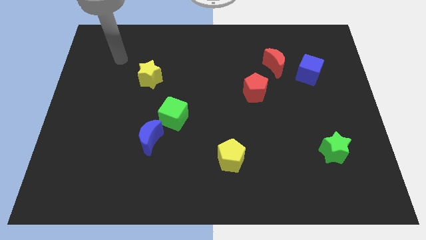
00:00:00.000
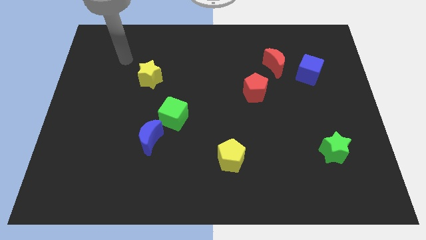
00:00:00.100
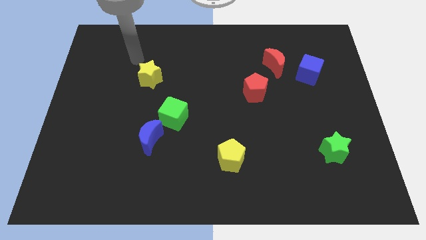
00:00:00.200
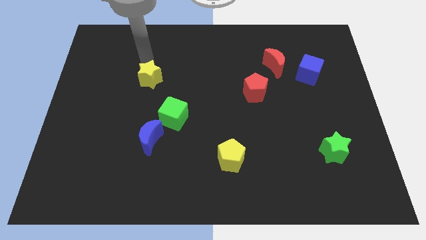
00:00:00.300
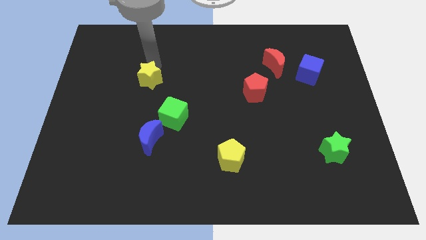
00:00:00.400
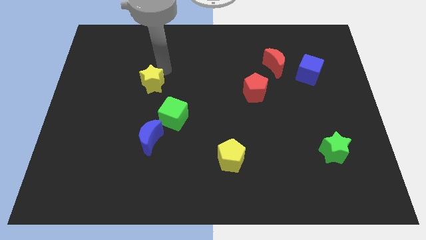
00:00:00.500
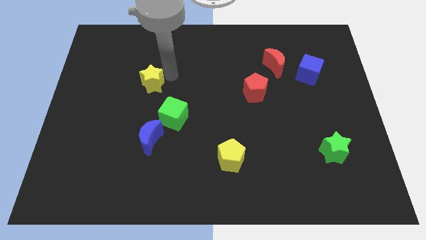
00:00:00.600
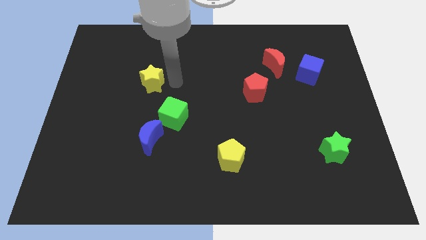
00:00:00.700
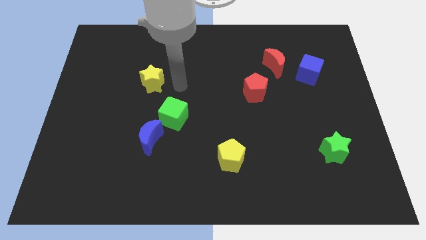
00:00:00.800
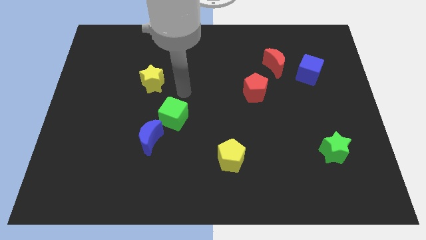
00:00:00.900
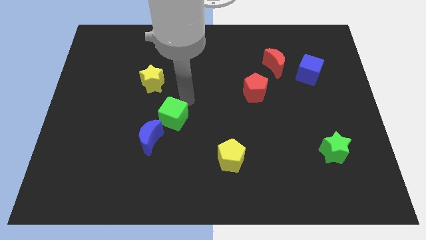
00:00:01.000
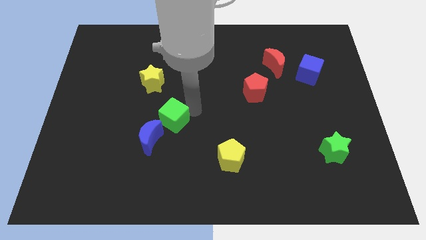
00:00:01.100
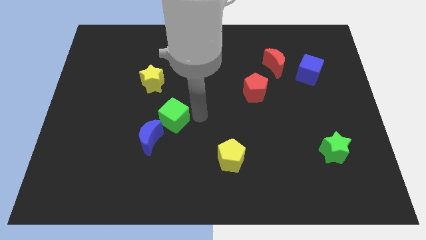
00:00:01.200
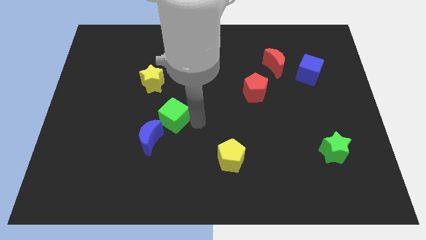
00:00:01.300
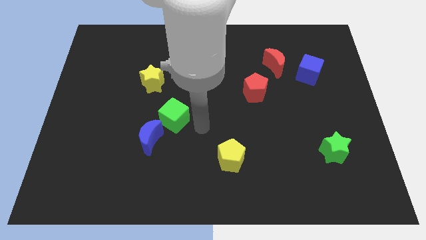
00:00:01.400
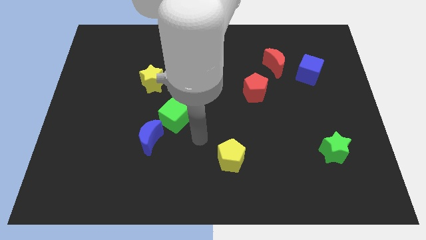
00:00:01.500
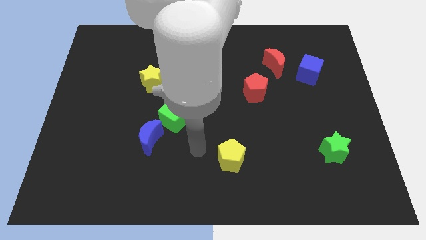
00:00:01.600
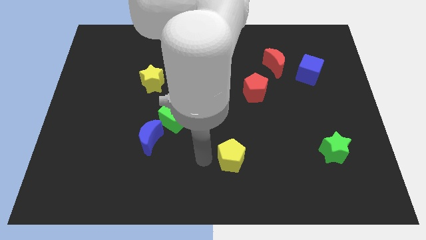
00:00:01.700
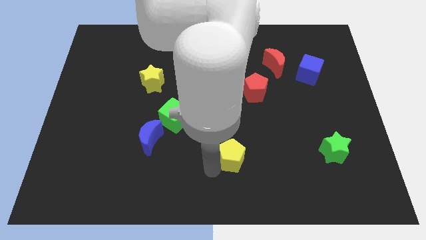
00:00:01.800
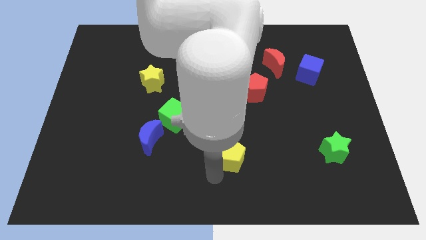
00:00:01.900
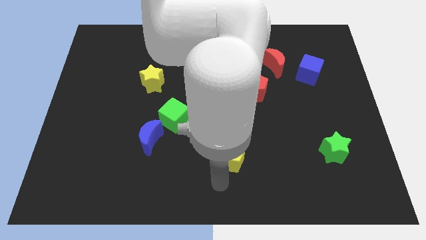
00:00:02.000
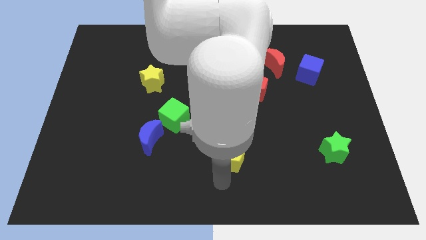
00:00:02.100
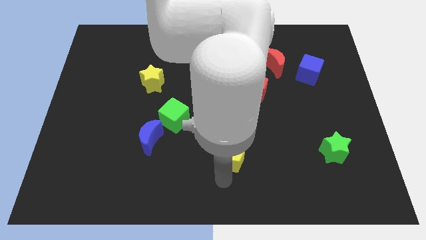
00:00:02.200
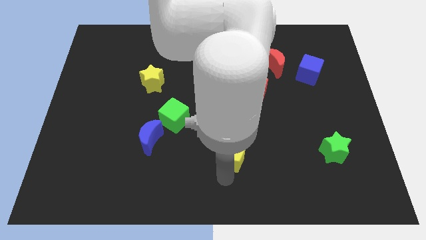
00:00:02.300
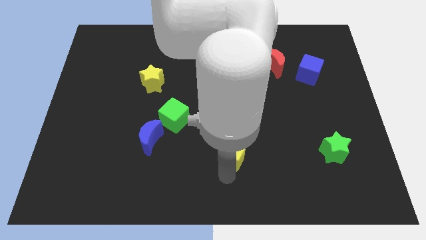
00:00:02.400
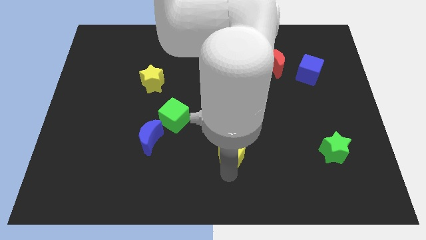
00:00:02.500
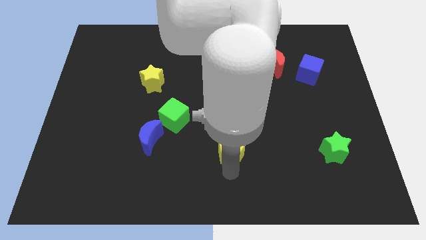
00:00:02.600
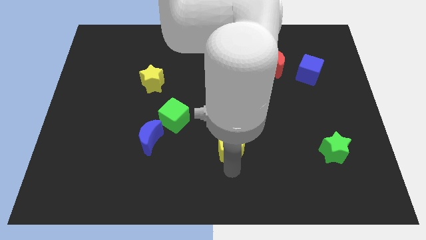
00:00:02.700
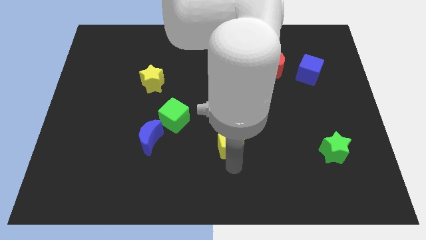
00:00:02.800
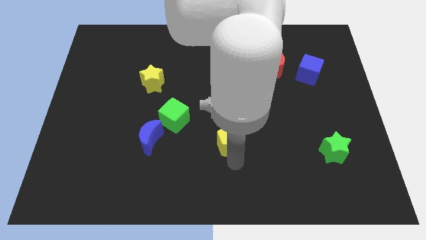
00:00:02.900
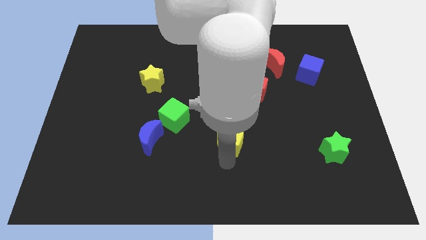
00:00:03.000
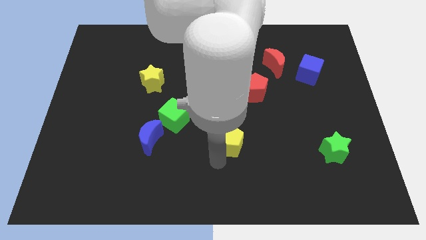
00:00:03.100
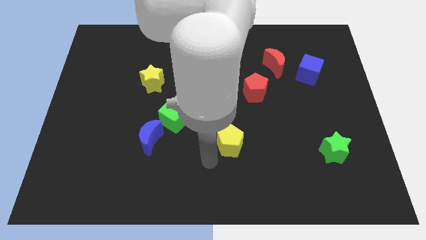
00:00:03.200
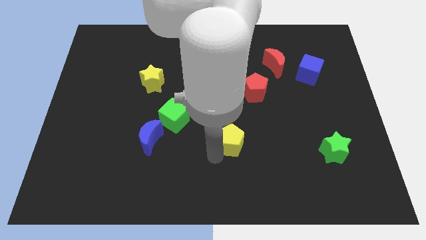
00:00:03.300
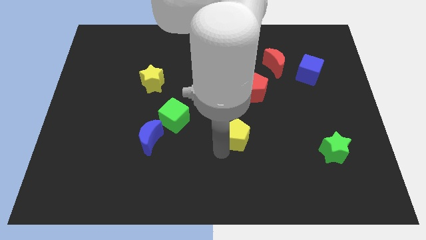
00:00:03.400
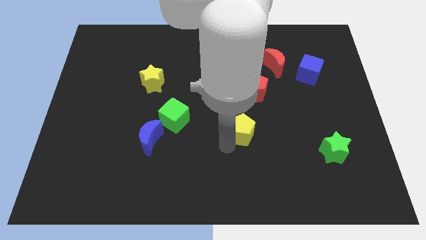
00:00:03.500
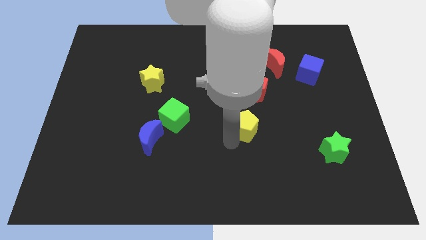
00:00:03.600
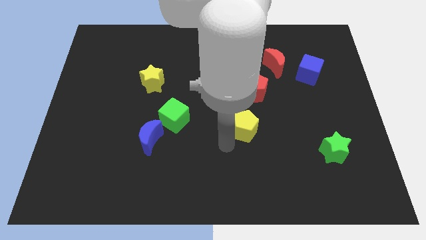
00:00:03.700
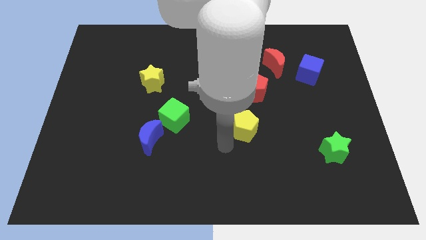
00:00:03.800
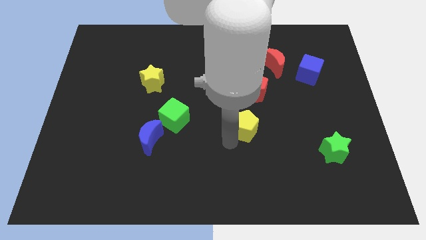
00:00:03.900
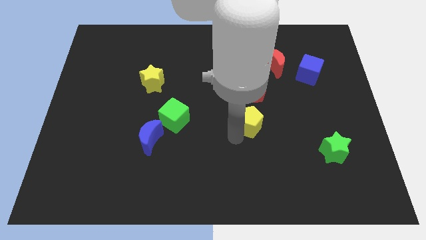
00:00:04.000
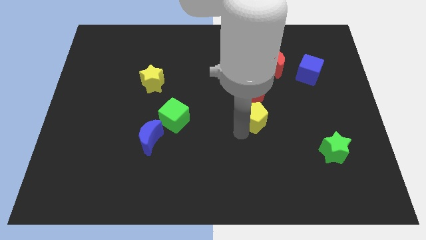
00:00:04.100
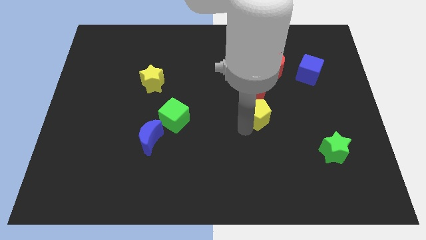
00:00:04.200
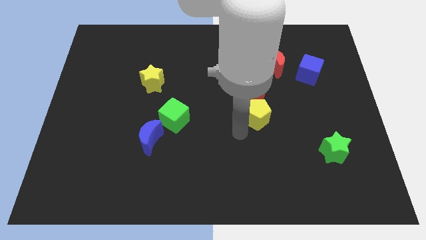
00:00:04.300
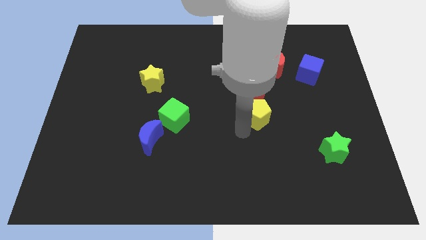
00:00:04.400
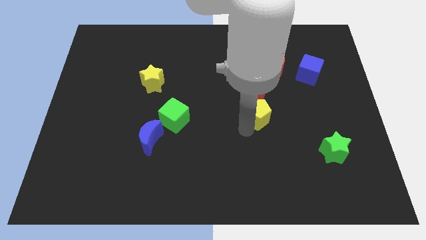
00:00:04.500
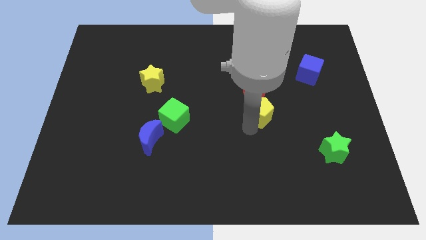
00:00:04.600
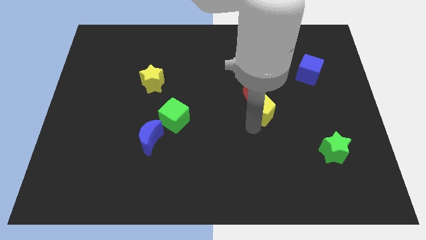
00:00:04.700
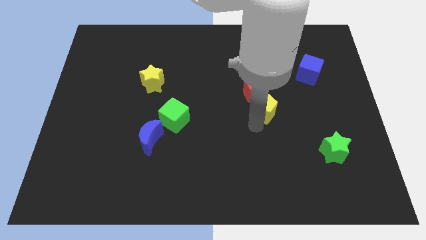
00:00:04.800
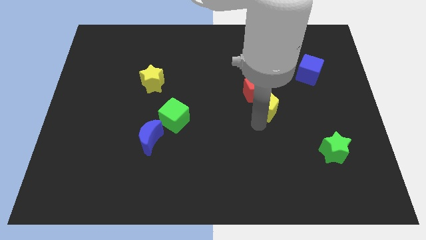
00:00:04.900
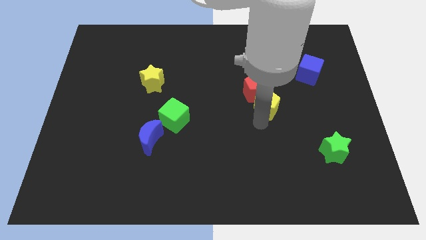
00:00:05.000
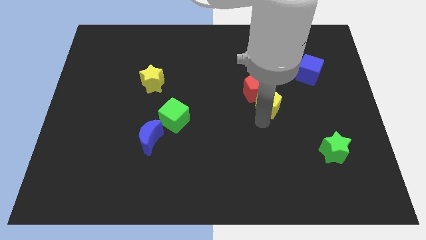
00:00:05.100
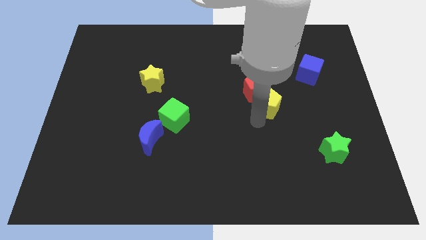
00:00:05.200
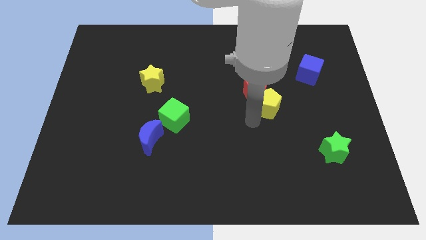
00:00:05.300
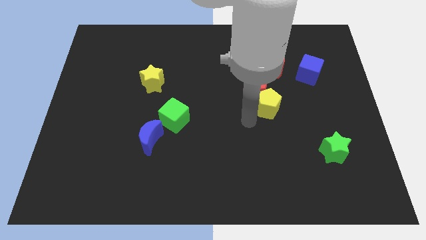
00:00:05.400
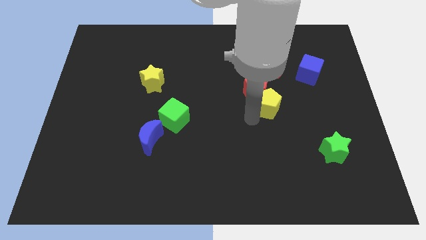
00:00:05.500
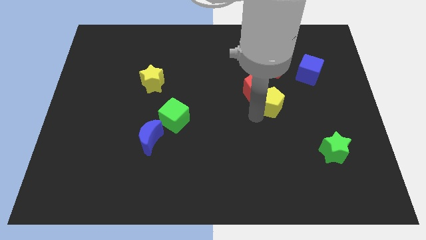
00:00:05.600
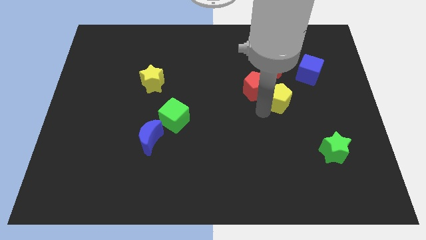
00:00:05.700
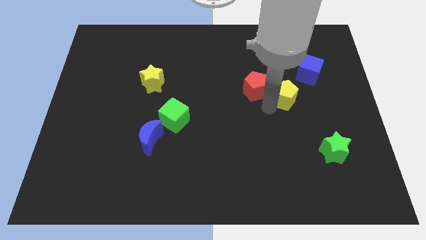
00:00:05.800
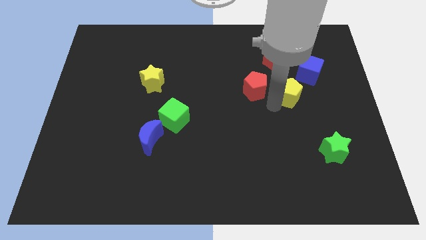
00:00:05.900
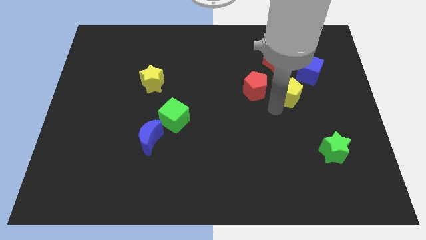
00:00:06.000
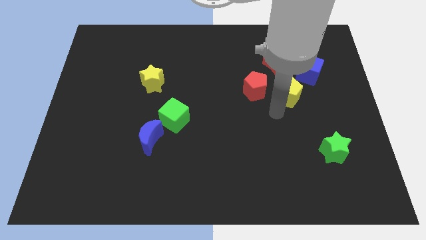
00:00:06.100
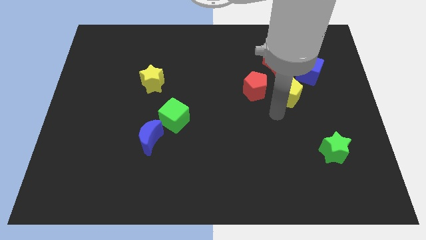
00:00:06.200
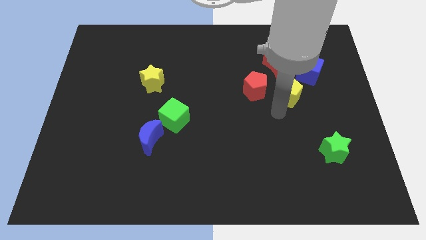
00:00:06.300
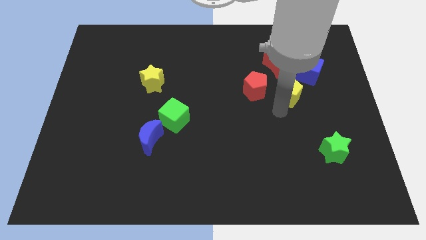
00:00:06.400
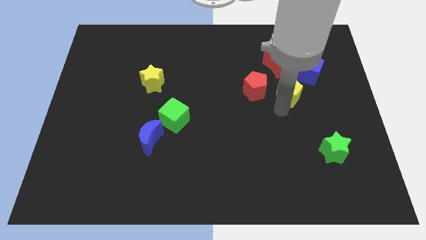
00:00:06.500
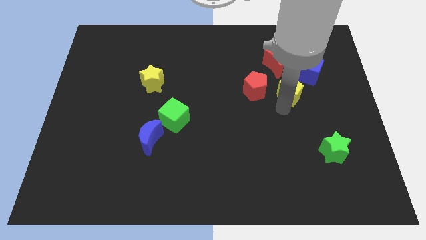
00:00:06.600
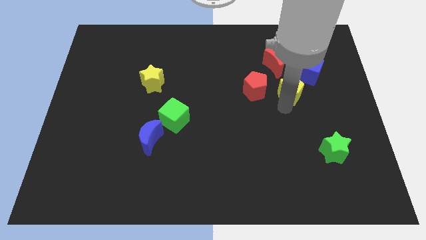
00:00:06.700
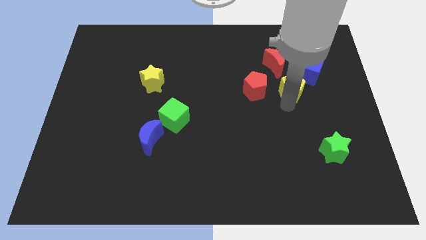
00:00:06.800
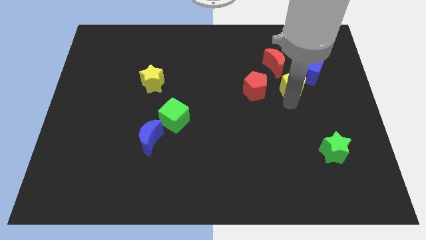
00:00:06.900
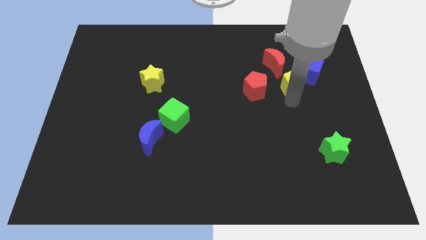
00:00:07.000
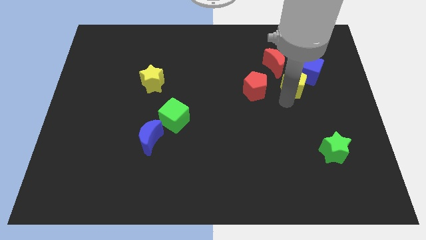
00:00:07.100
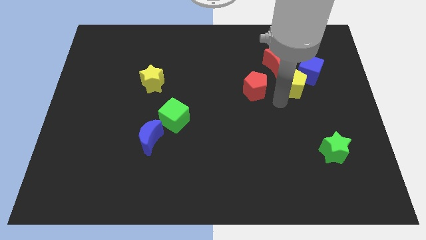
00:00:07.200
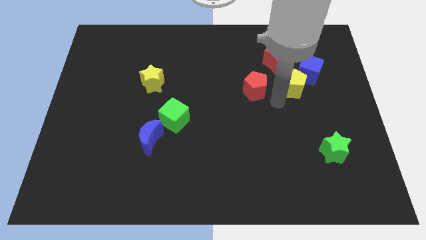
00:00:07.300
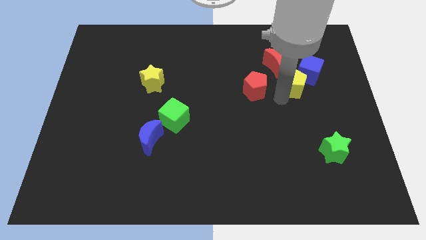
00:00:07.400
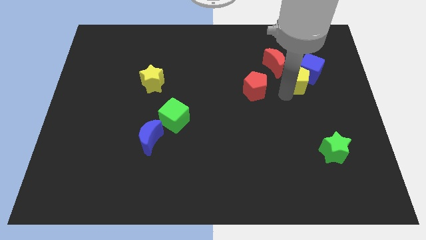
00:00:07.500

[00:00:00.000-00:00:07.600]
move the yellow pentagon close to the blue cube

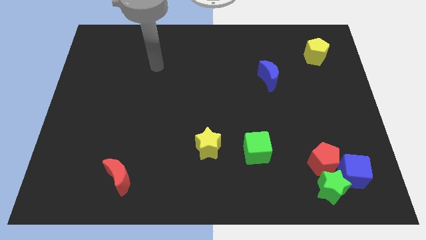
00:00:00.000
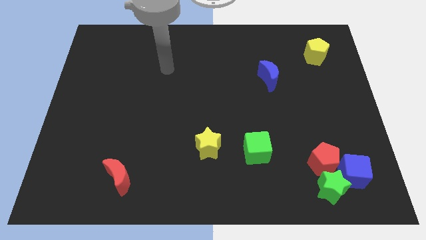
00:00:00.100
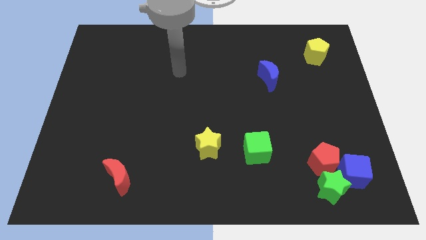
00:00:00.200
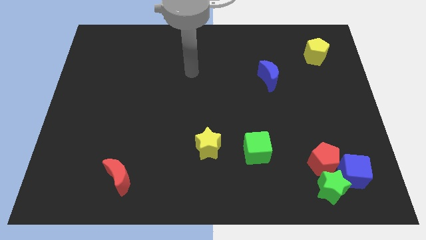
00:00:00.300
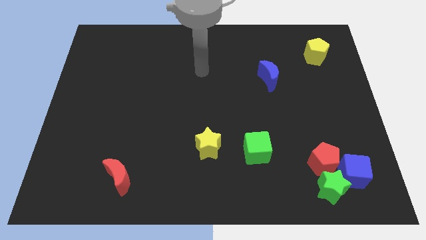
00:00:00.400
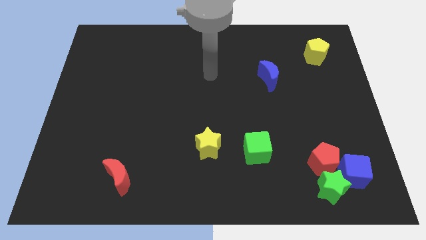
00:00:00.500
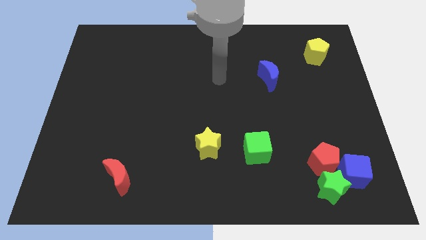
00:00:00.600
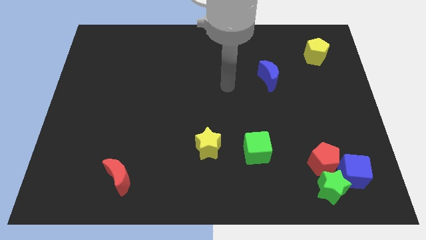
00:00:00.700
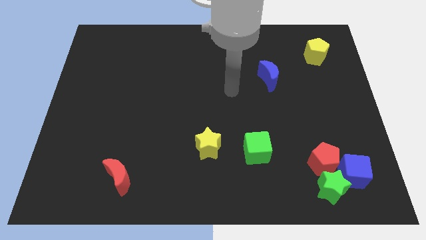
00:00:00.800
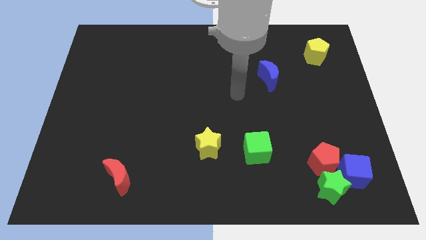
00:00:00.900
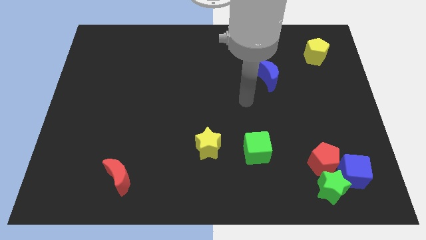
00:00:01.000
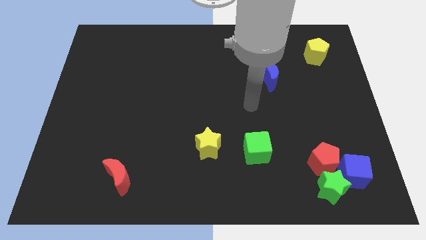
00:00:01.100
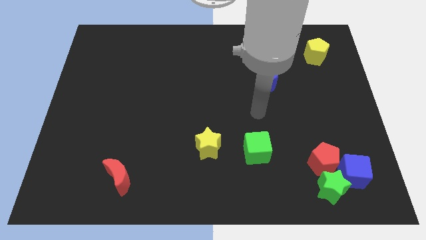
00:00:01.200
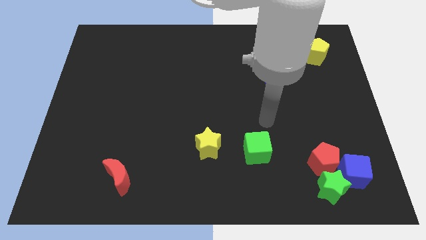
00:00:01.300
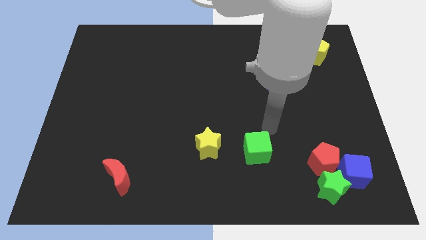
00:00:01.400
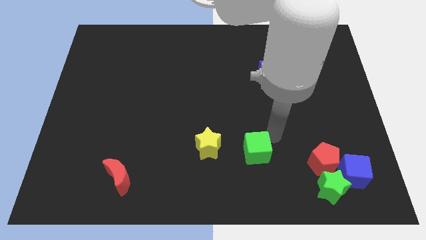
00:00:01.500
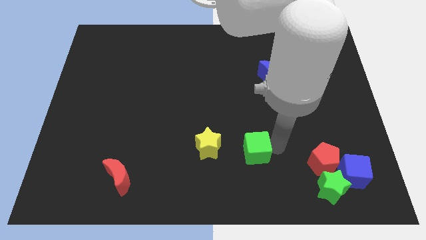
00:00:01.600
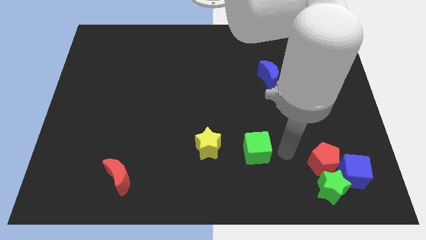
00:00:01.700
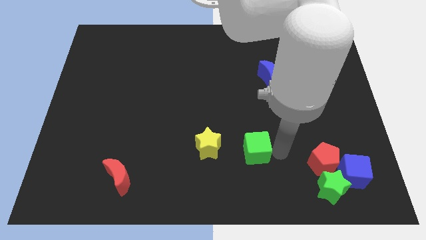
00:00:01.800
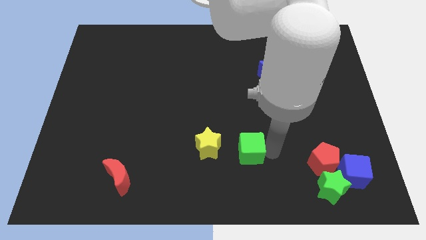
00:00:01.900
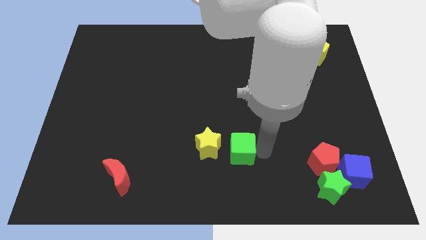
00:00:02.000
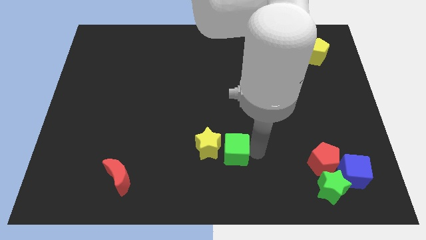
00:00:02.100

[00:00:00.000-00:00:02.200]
put the green cube towards the yellow star
